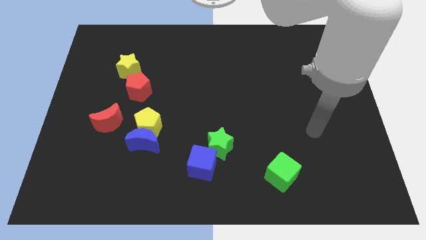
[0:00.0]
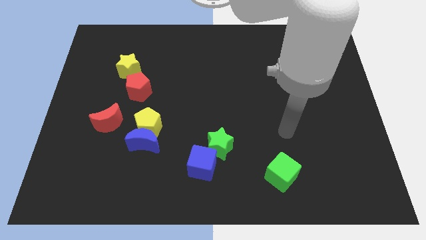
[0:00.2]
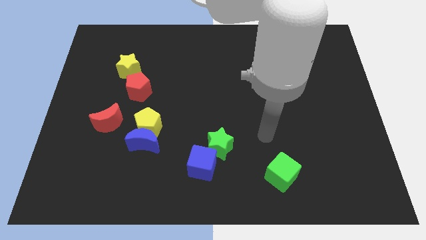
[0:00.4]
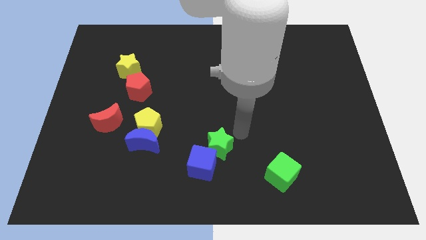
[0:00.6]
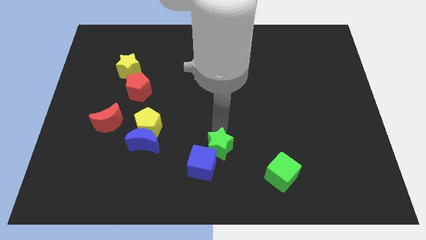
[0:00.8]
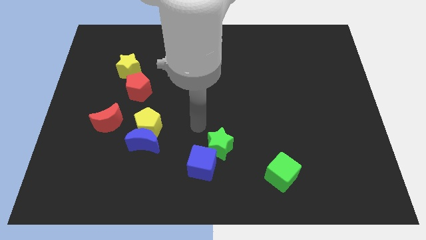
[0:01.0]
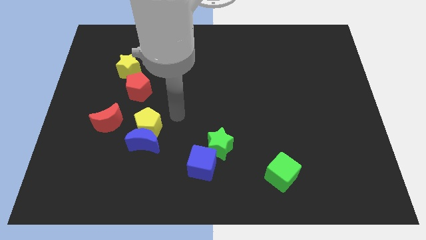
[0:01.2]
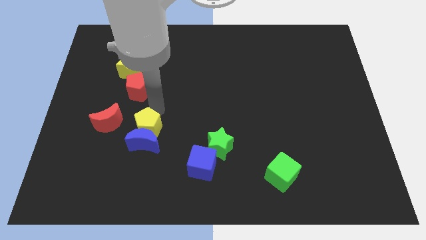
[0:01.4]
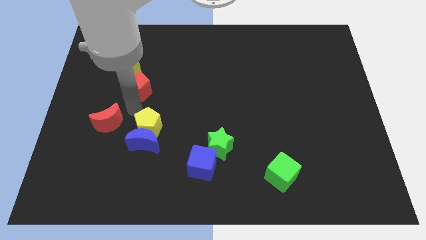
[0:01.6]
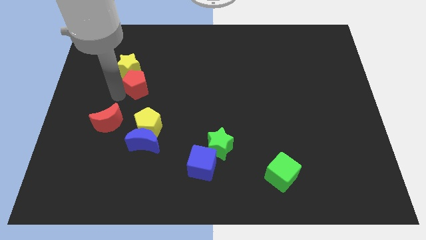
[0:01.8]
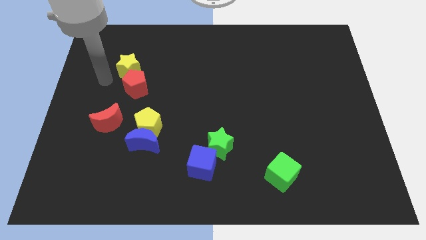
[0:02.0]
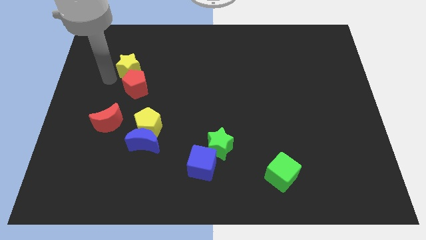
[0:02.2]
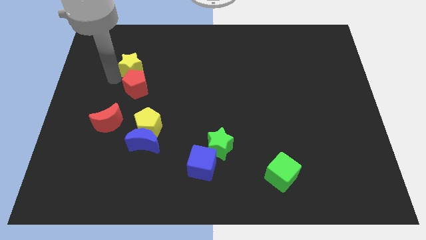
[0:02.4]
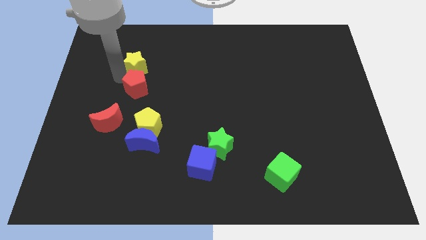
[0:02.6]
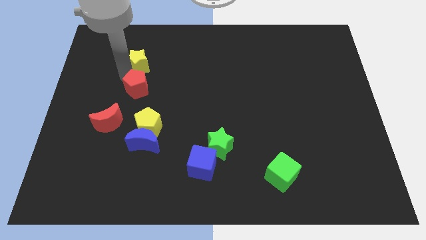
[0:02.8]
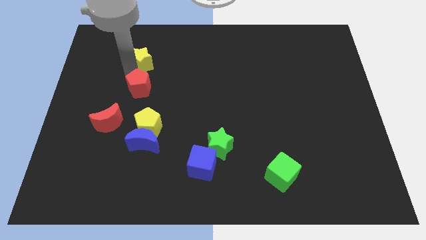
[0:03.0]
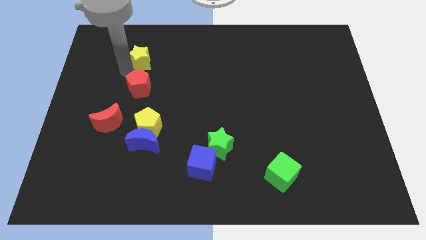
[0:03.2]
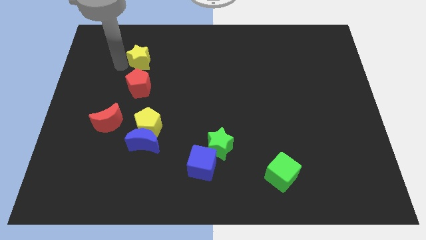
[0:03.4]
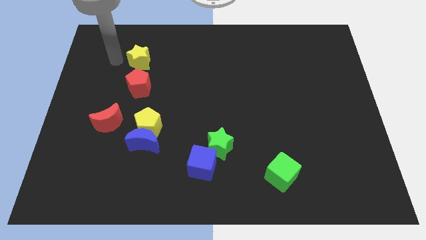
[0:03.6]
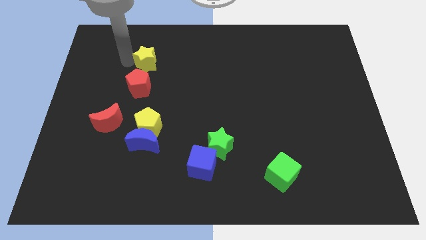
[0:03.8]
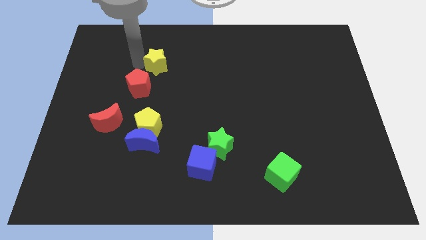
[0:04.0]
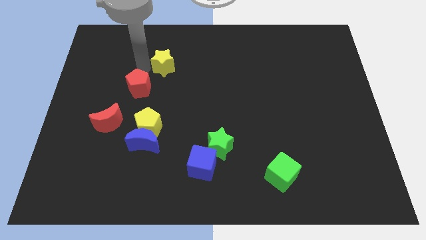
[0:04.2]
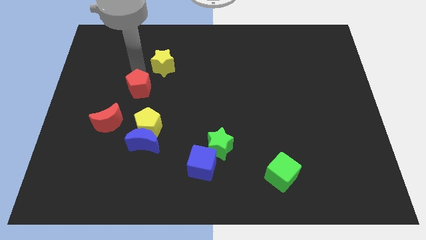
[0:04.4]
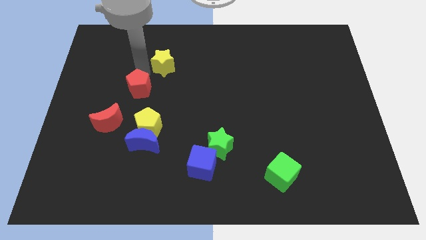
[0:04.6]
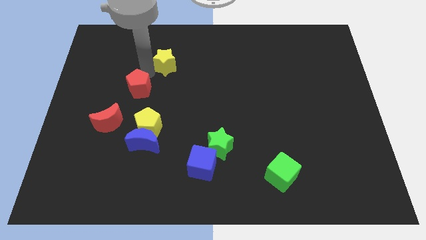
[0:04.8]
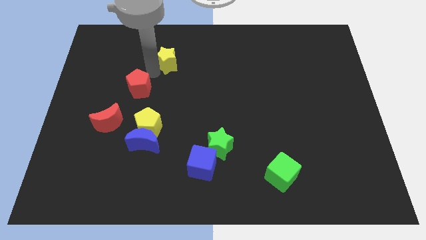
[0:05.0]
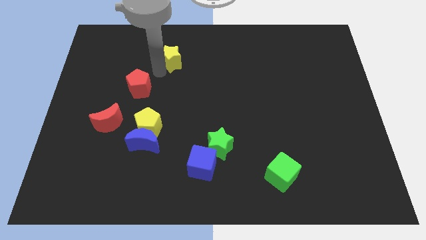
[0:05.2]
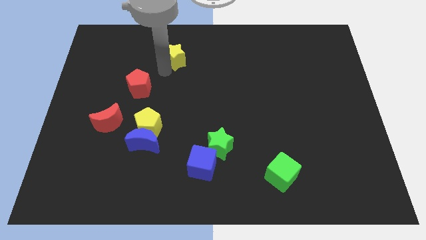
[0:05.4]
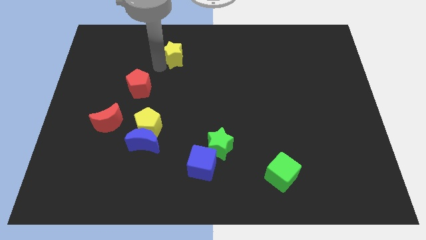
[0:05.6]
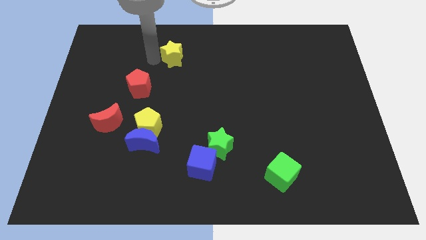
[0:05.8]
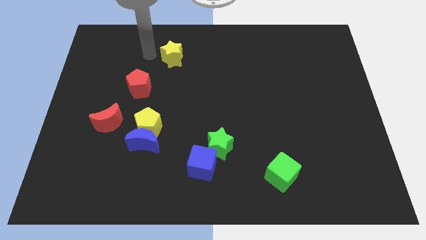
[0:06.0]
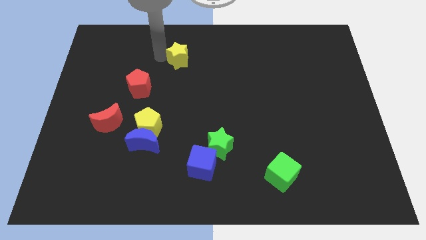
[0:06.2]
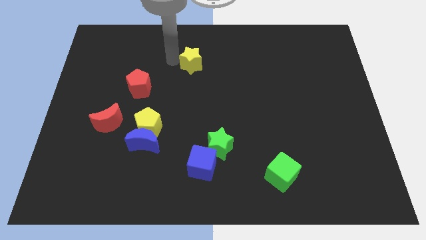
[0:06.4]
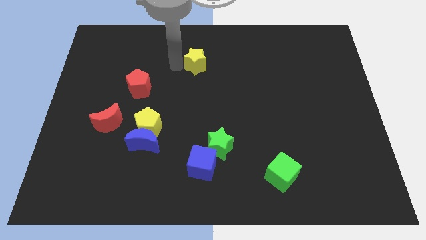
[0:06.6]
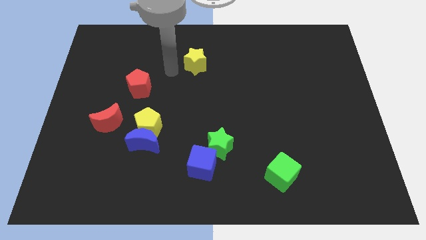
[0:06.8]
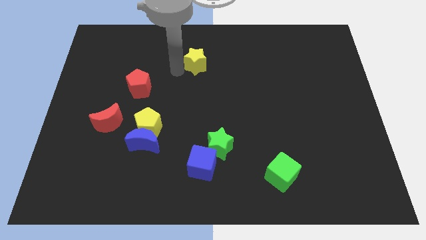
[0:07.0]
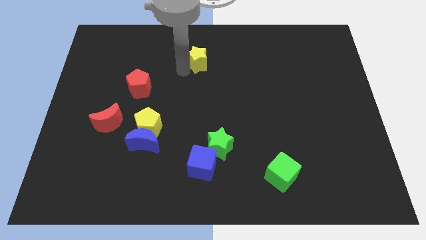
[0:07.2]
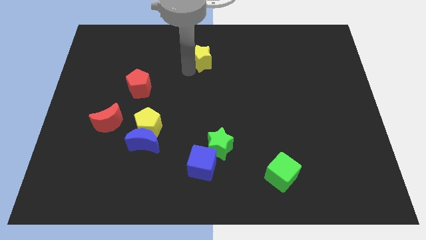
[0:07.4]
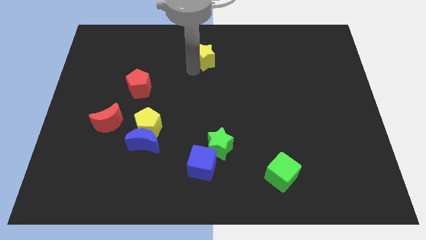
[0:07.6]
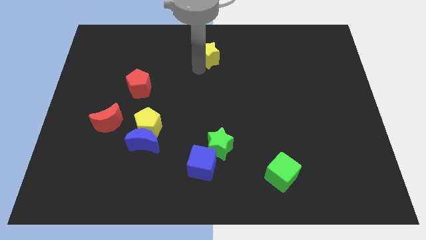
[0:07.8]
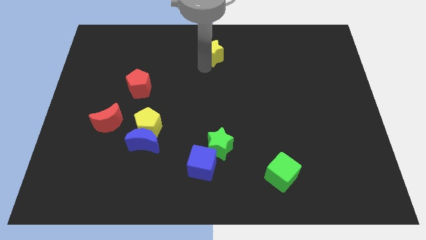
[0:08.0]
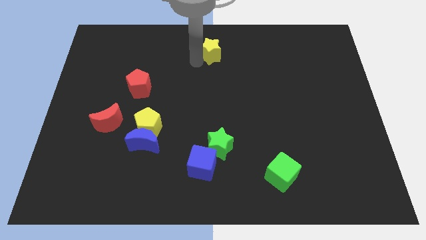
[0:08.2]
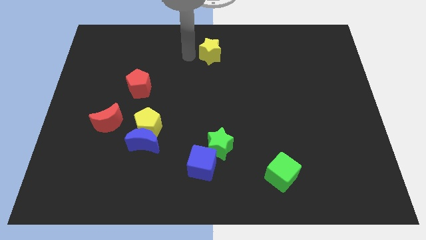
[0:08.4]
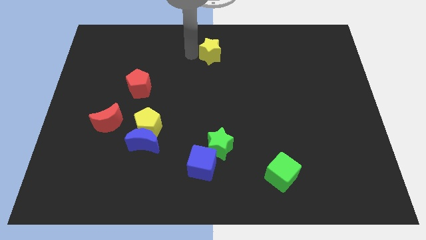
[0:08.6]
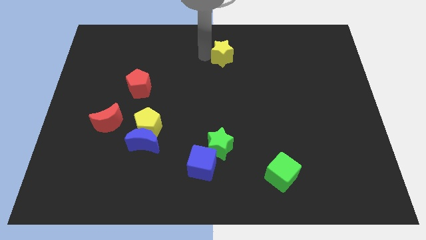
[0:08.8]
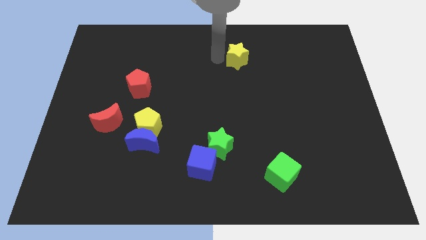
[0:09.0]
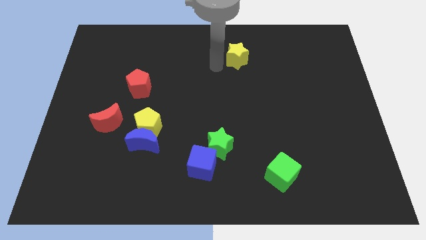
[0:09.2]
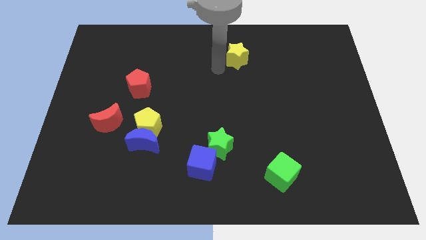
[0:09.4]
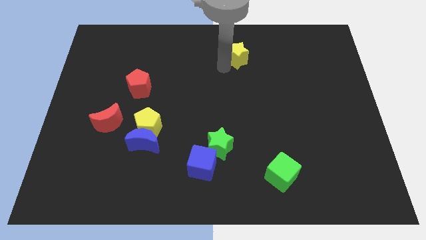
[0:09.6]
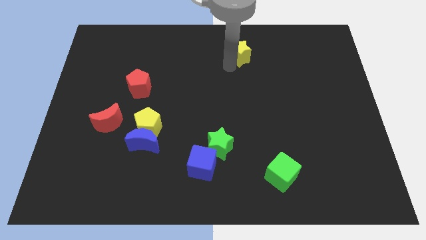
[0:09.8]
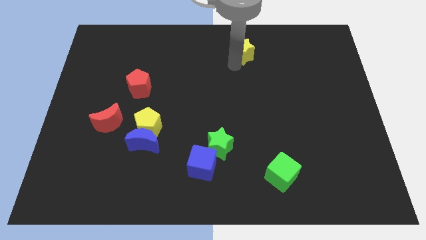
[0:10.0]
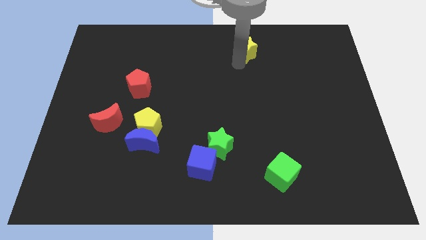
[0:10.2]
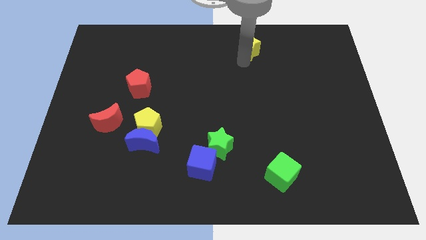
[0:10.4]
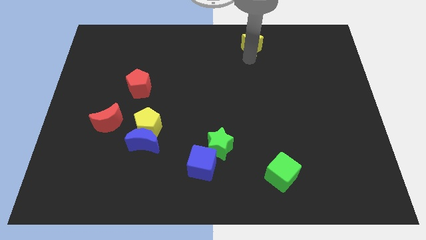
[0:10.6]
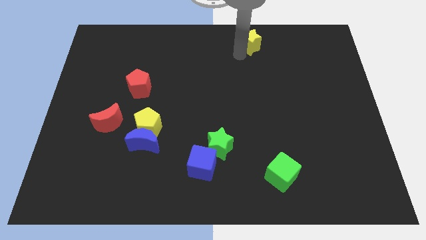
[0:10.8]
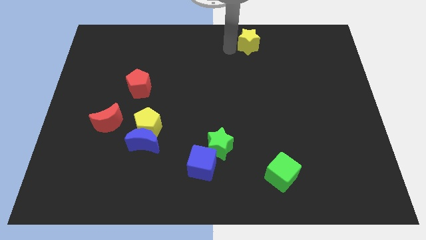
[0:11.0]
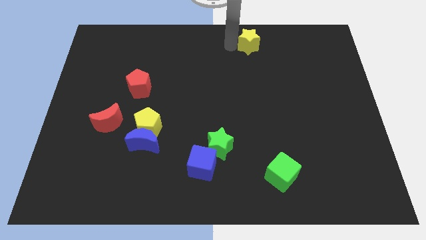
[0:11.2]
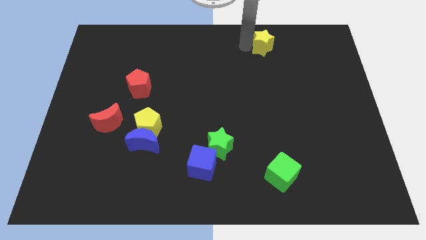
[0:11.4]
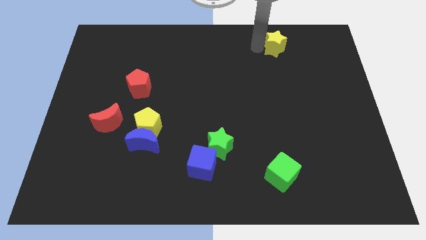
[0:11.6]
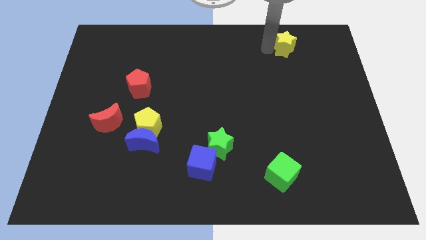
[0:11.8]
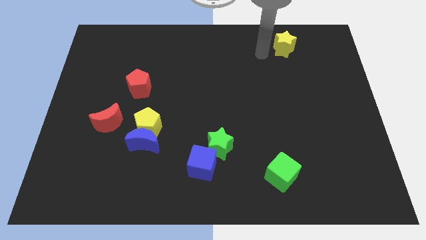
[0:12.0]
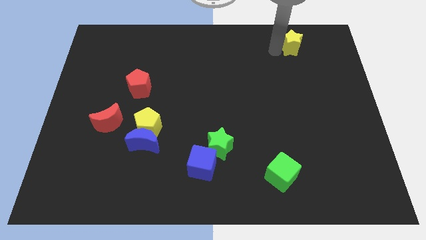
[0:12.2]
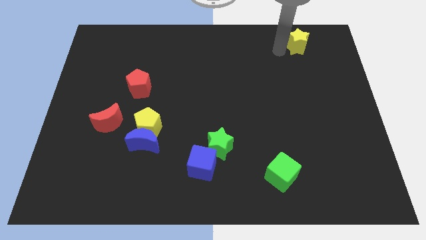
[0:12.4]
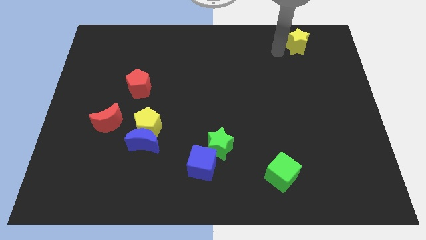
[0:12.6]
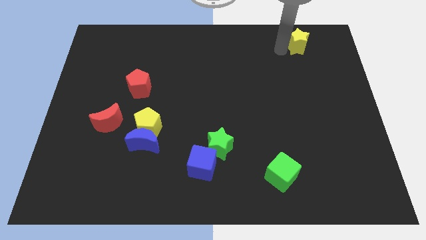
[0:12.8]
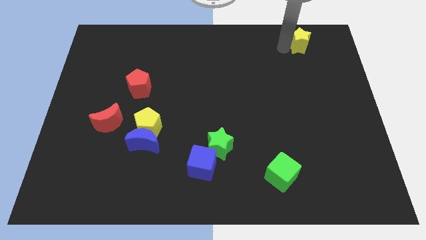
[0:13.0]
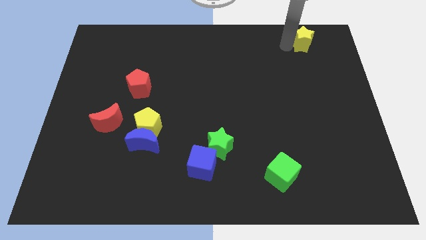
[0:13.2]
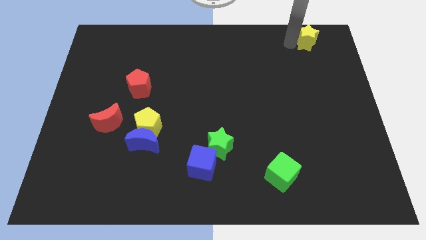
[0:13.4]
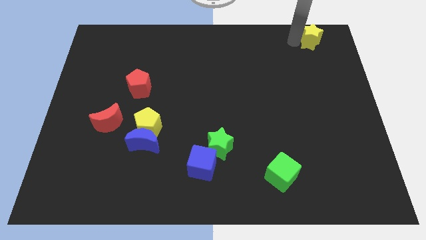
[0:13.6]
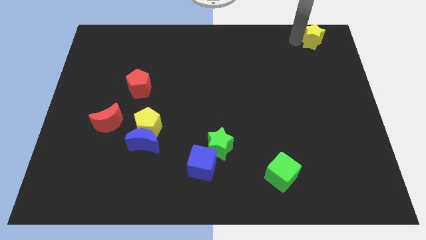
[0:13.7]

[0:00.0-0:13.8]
put the yellow star to the top right
